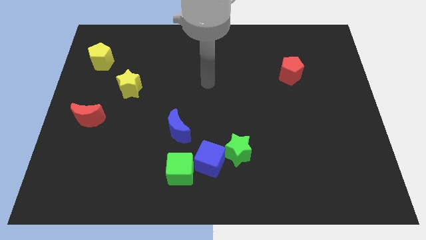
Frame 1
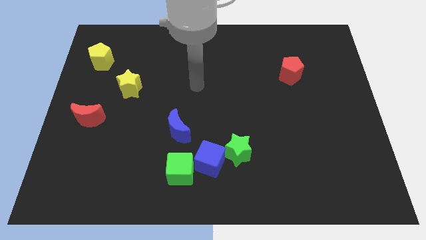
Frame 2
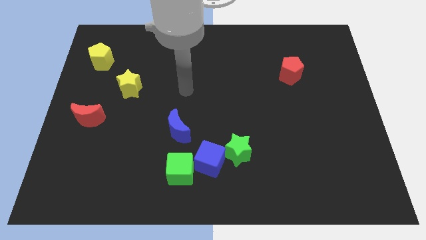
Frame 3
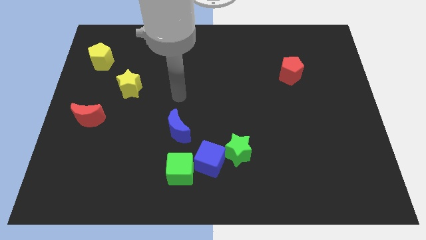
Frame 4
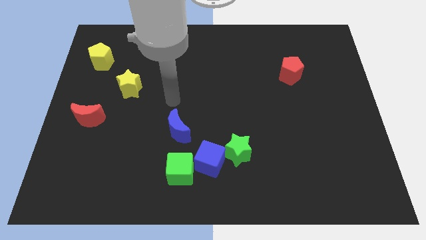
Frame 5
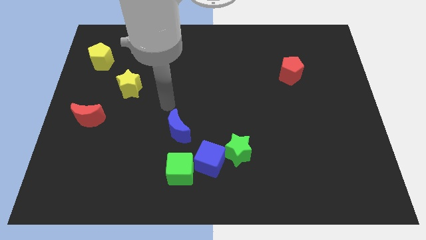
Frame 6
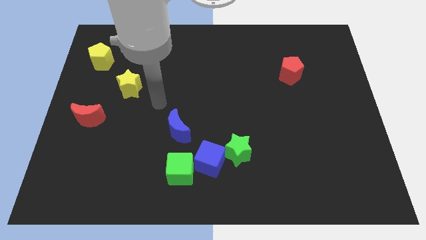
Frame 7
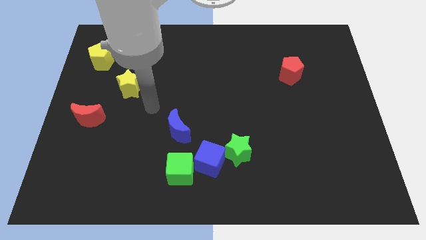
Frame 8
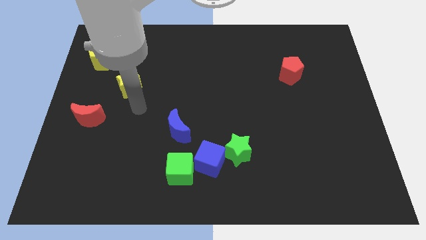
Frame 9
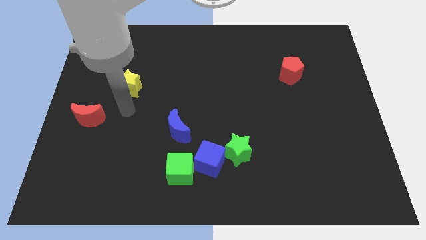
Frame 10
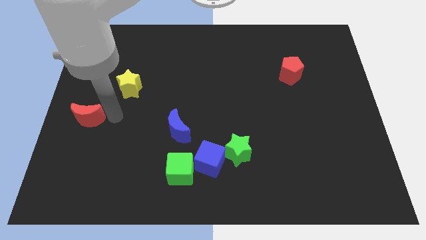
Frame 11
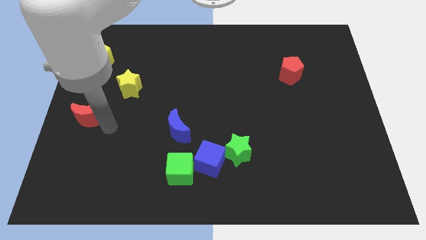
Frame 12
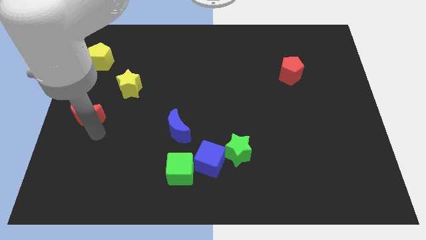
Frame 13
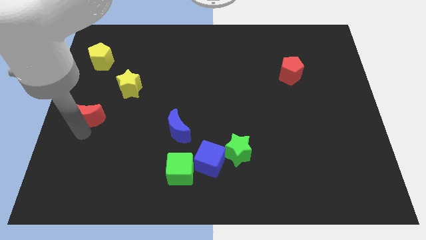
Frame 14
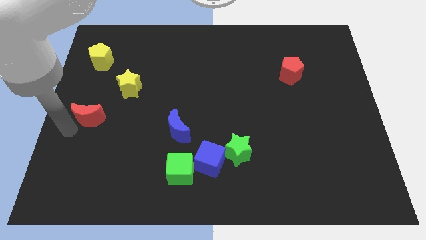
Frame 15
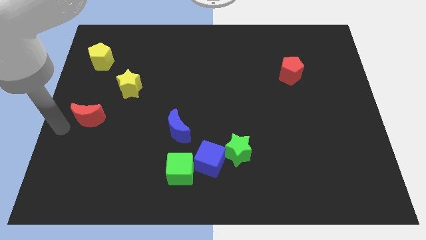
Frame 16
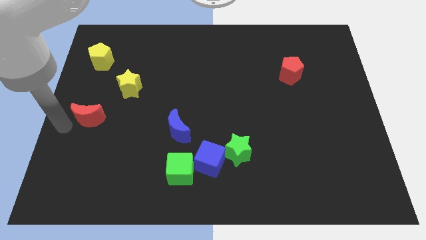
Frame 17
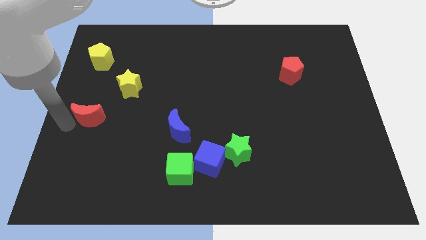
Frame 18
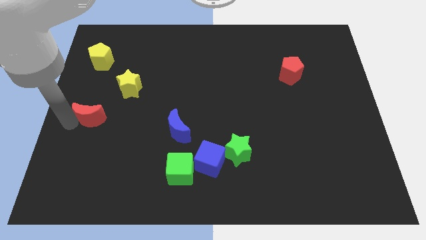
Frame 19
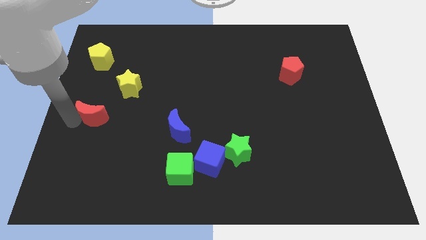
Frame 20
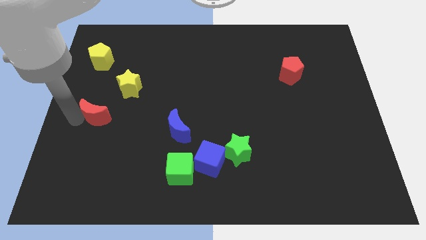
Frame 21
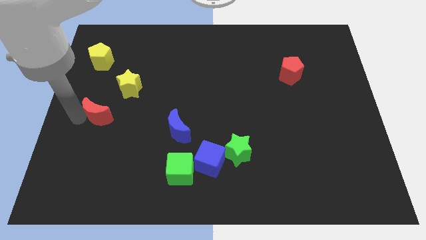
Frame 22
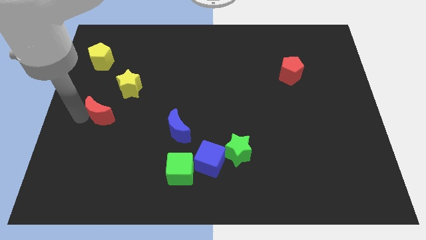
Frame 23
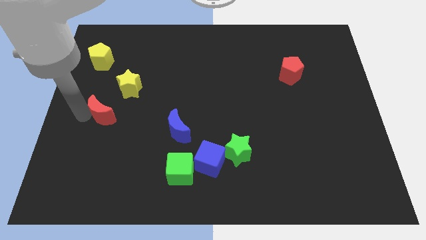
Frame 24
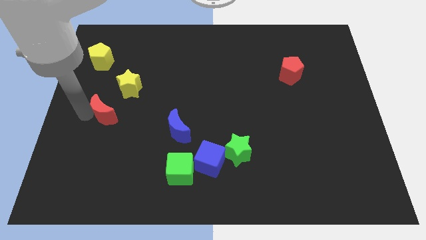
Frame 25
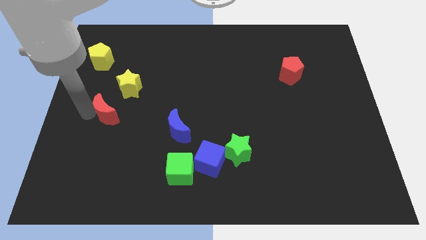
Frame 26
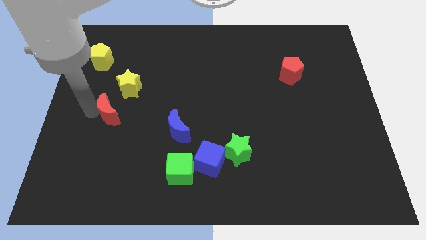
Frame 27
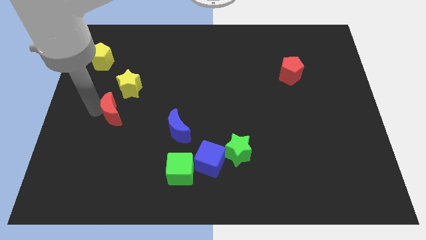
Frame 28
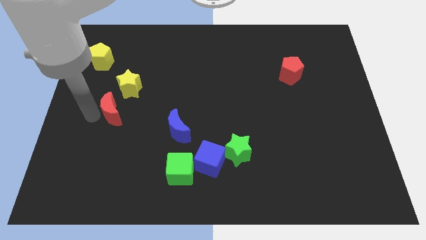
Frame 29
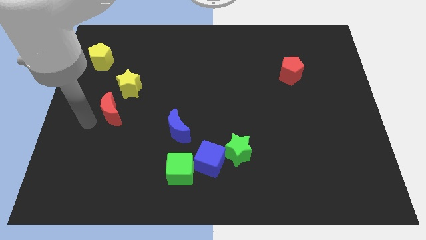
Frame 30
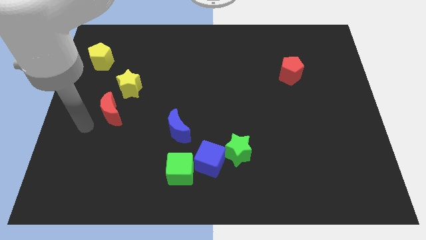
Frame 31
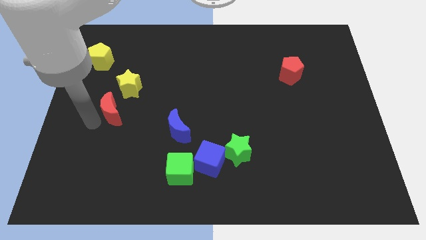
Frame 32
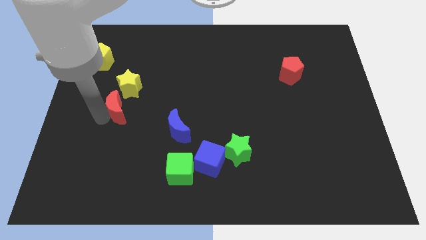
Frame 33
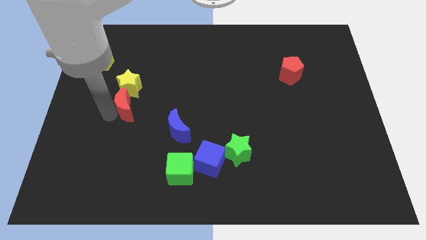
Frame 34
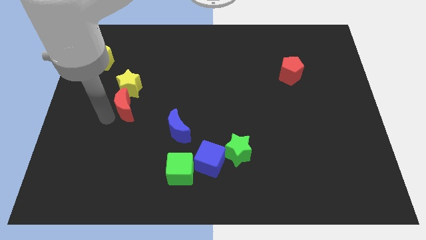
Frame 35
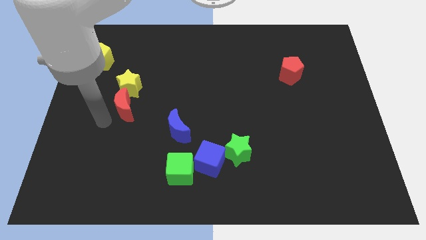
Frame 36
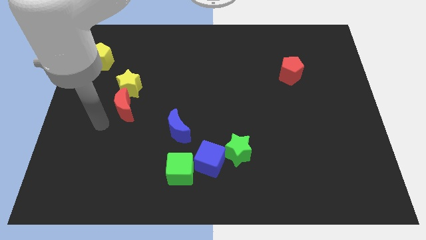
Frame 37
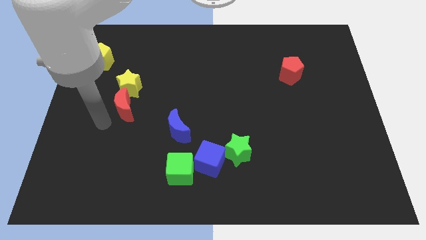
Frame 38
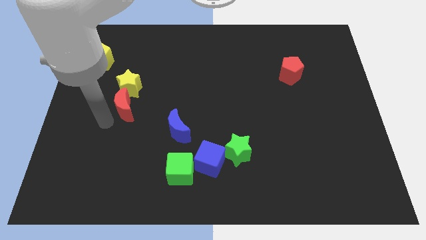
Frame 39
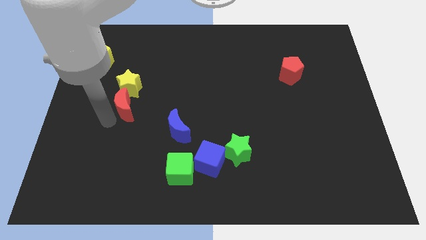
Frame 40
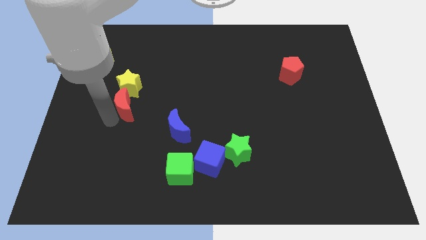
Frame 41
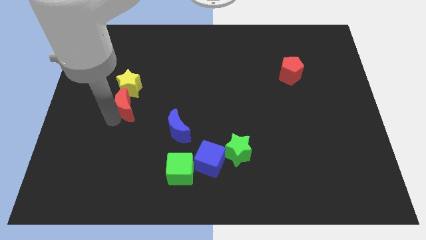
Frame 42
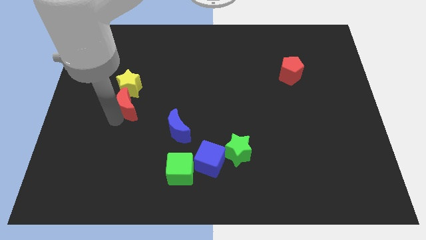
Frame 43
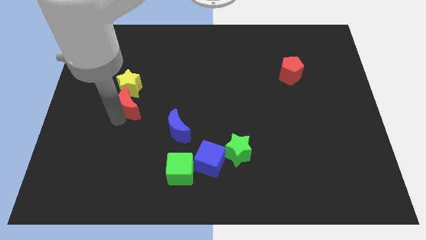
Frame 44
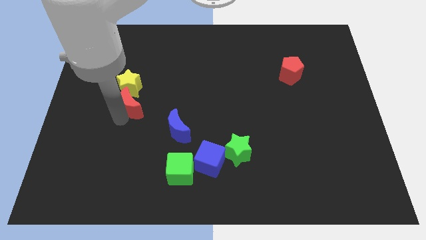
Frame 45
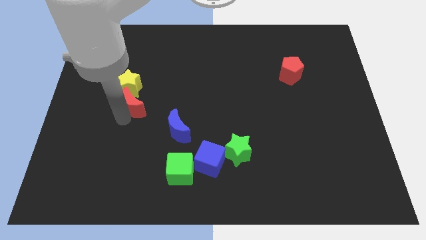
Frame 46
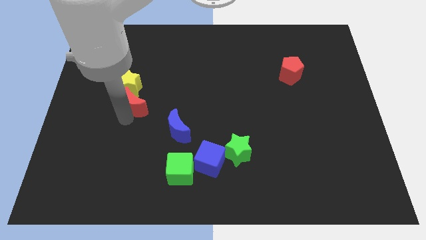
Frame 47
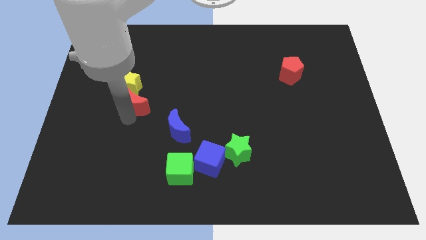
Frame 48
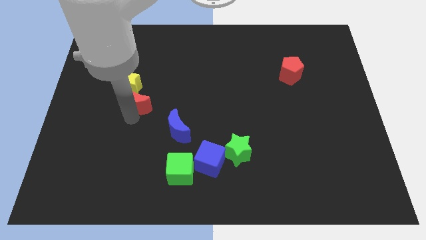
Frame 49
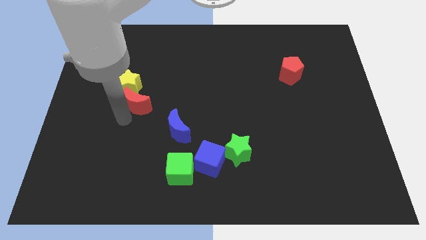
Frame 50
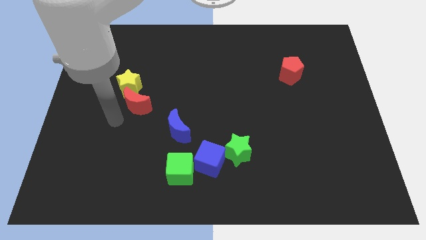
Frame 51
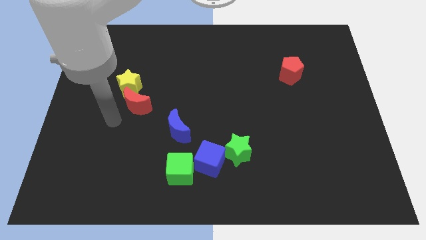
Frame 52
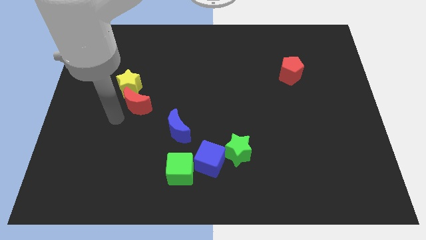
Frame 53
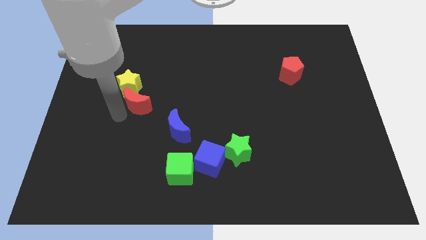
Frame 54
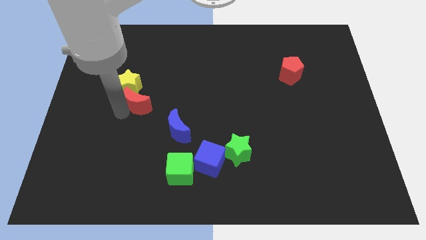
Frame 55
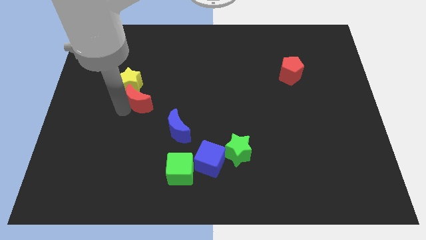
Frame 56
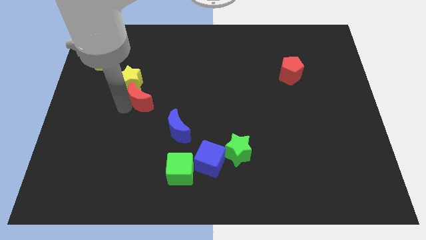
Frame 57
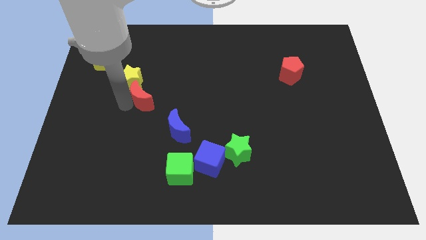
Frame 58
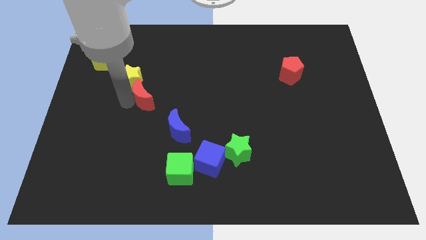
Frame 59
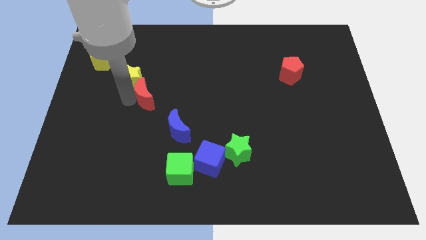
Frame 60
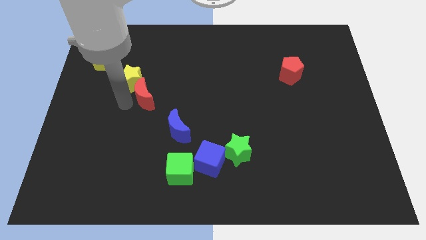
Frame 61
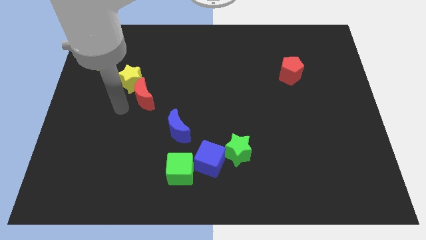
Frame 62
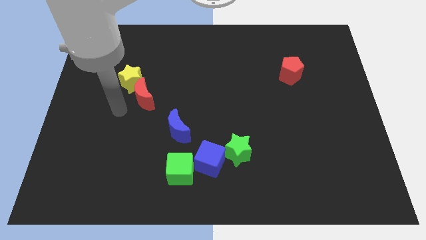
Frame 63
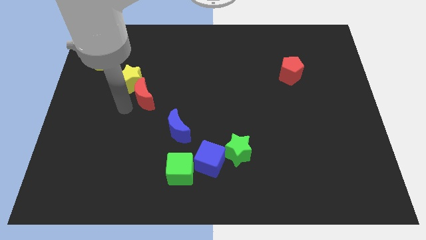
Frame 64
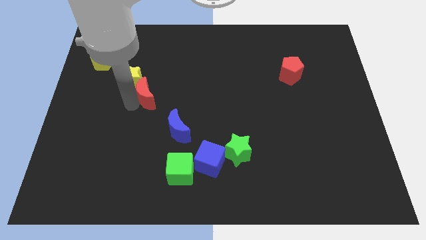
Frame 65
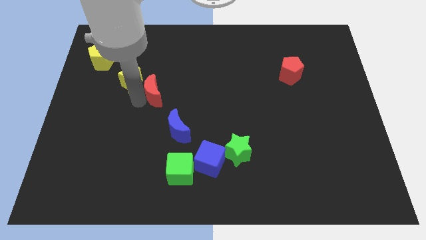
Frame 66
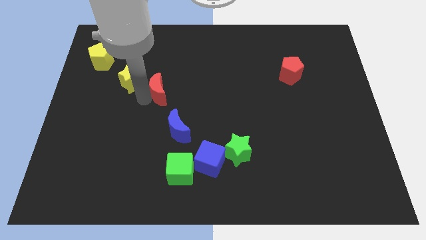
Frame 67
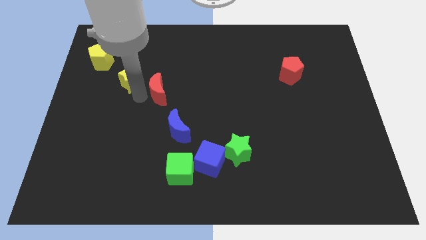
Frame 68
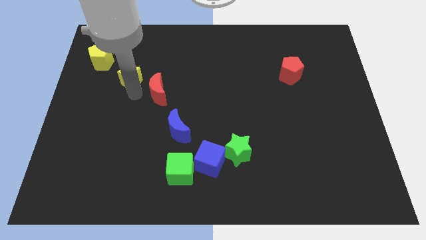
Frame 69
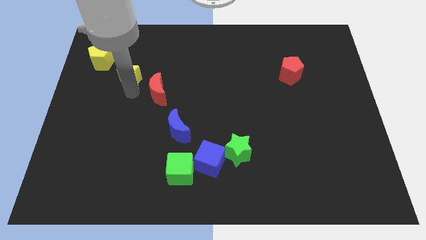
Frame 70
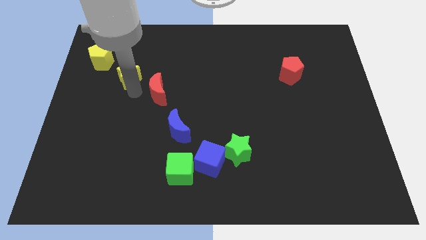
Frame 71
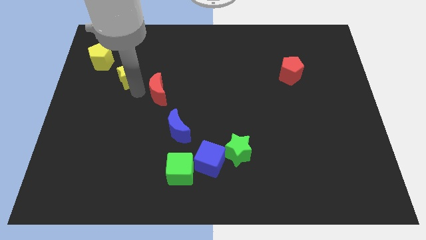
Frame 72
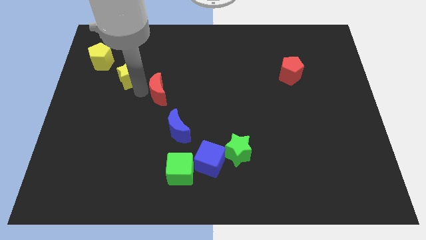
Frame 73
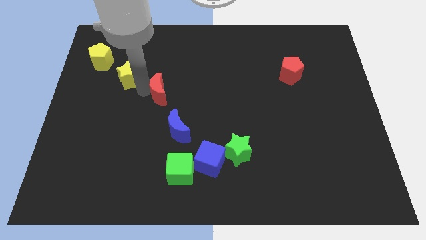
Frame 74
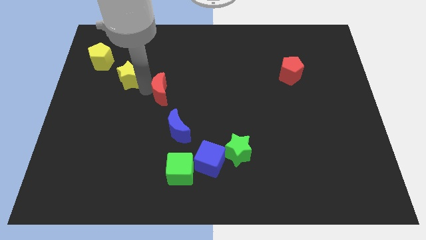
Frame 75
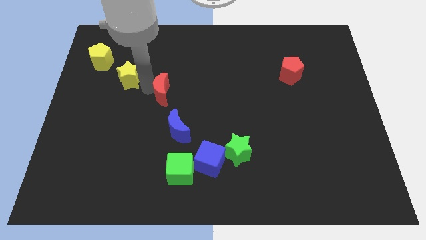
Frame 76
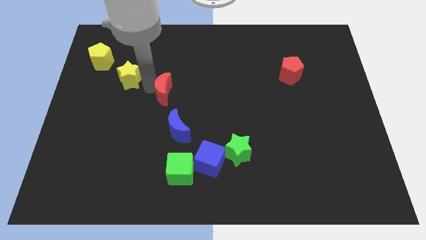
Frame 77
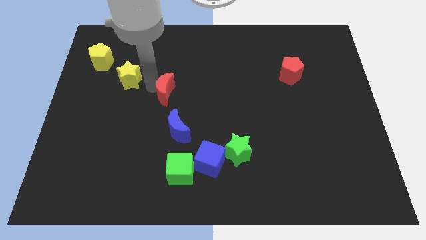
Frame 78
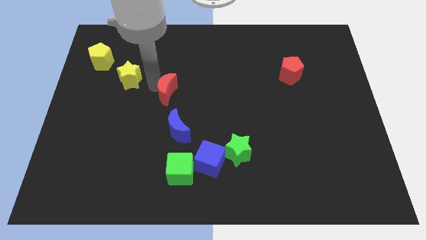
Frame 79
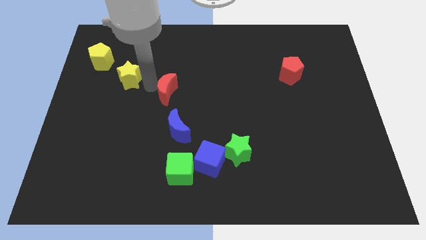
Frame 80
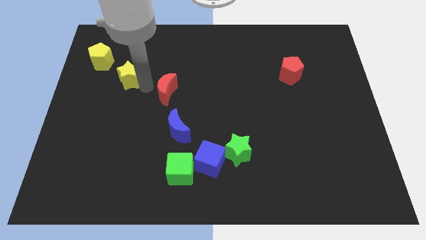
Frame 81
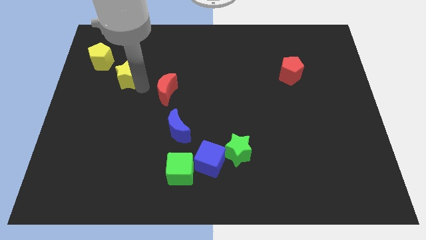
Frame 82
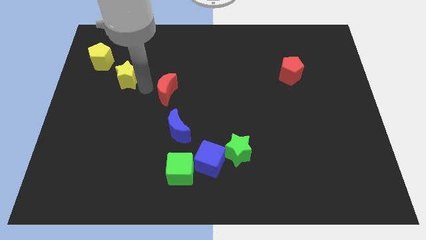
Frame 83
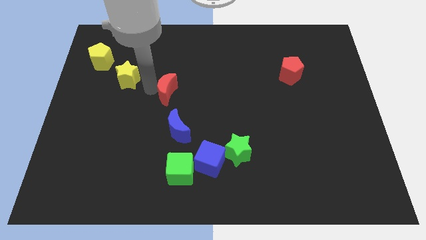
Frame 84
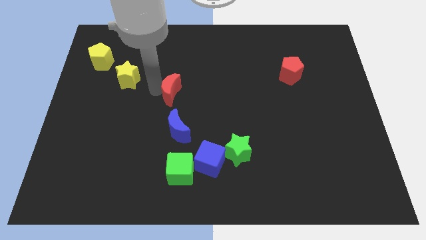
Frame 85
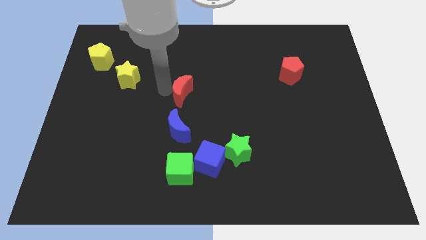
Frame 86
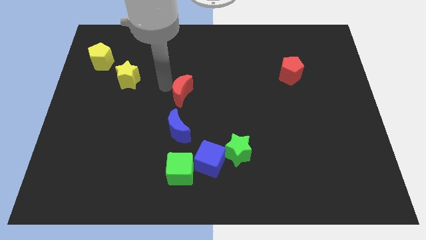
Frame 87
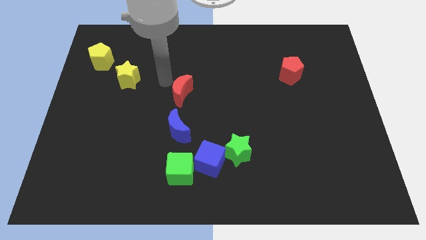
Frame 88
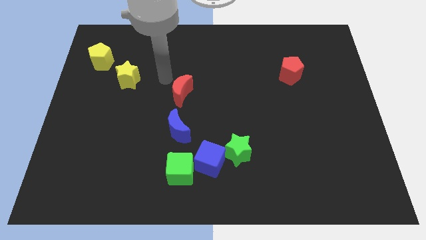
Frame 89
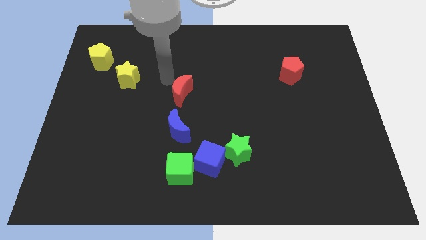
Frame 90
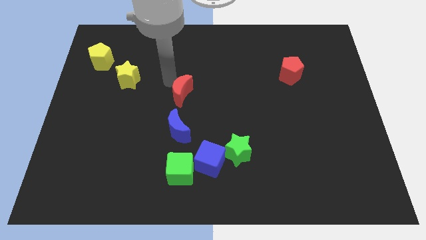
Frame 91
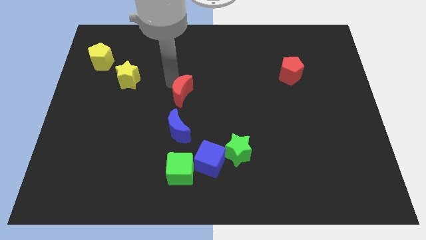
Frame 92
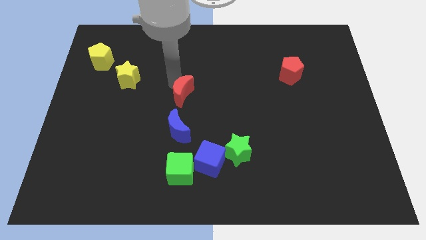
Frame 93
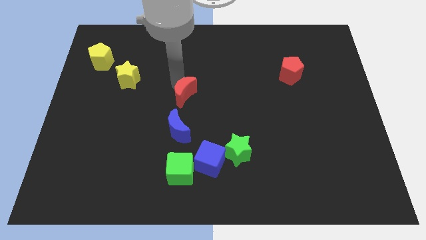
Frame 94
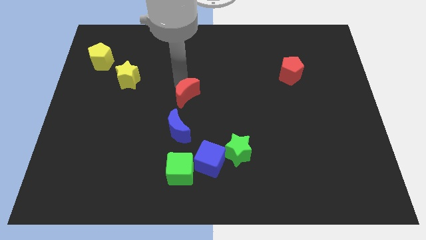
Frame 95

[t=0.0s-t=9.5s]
push the red moon to the right
